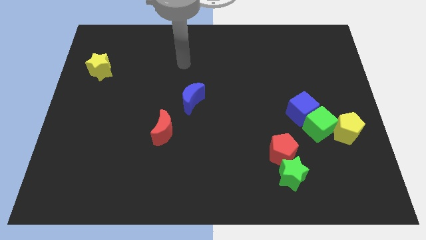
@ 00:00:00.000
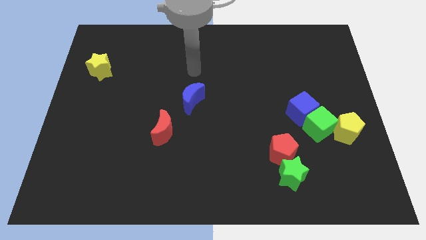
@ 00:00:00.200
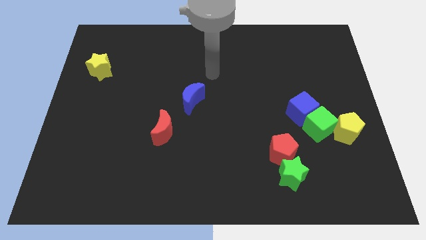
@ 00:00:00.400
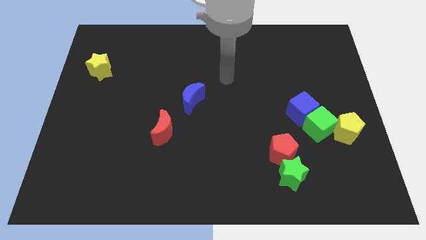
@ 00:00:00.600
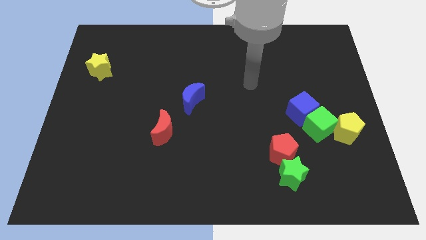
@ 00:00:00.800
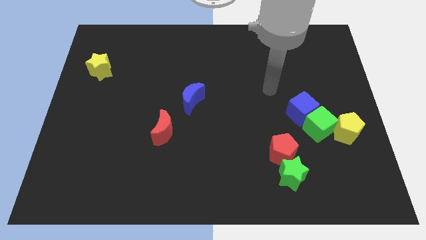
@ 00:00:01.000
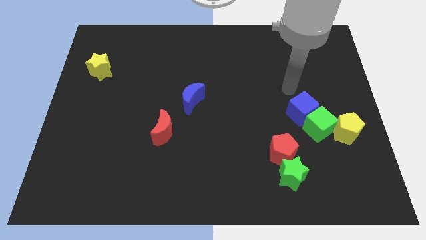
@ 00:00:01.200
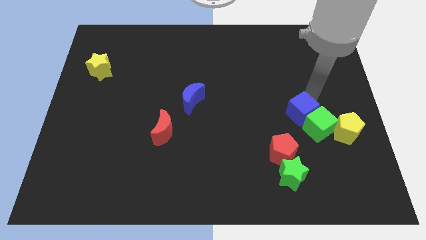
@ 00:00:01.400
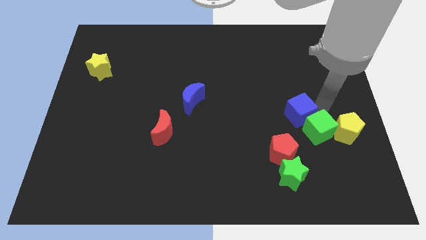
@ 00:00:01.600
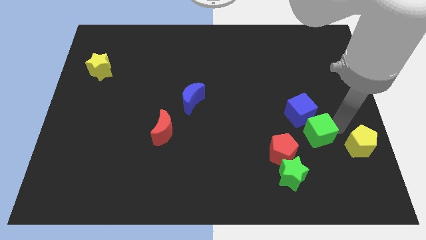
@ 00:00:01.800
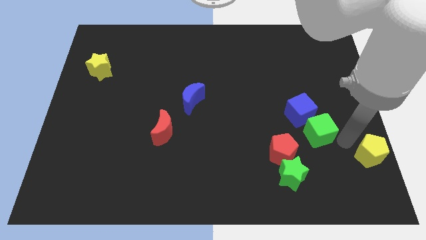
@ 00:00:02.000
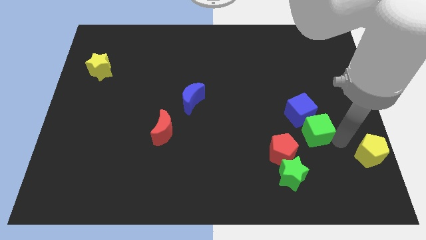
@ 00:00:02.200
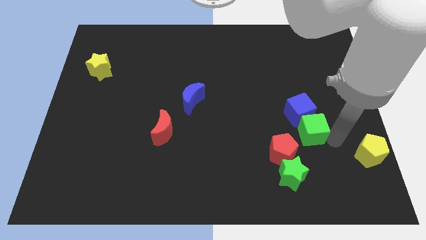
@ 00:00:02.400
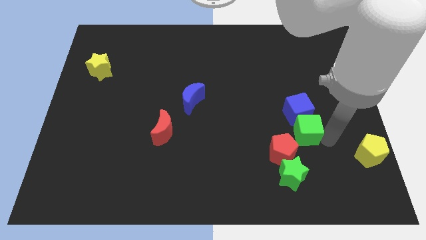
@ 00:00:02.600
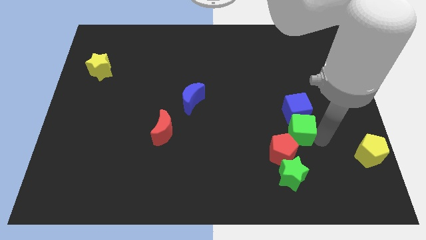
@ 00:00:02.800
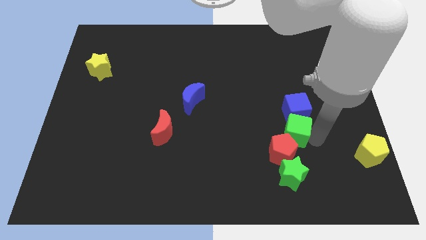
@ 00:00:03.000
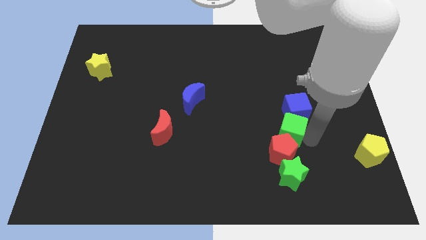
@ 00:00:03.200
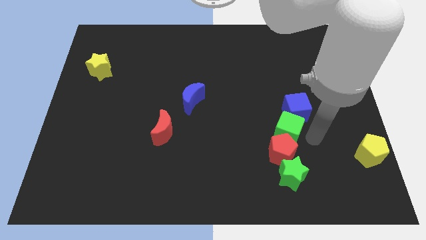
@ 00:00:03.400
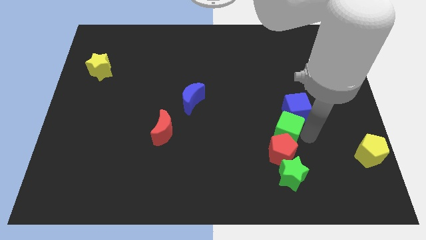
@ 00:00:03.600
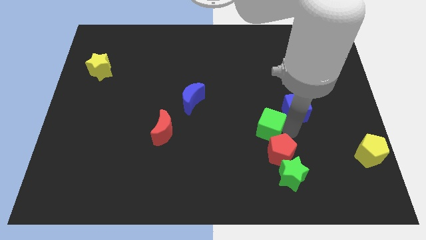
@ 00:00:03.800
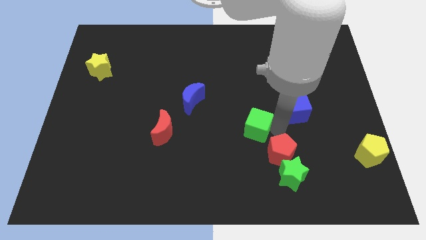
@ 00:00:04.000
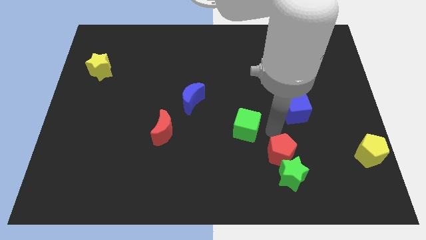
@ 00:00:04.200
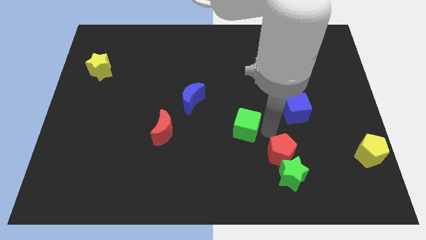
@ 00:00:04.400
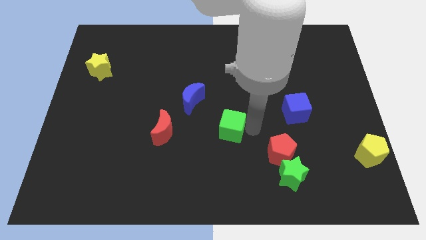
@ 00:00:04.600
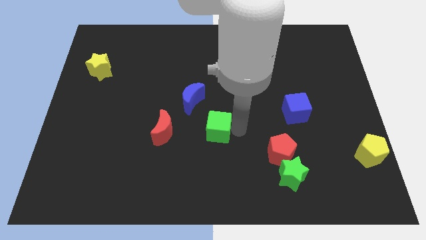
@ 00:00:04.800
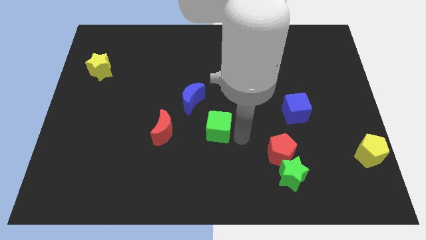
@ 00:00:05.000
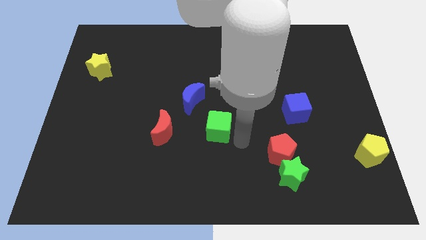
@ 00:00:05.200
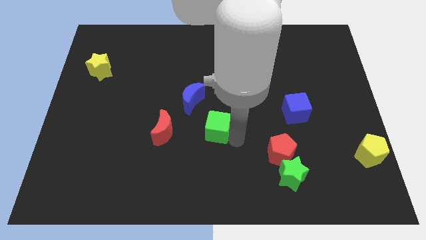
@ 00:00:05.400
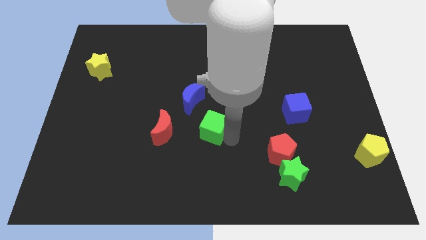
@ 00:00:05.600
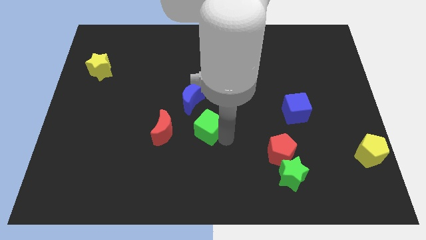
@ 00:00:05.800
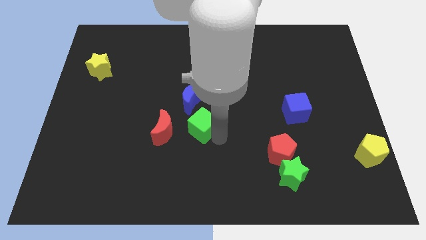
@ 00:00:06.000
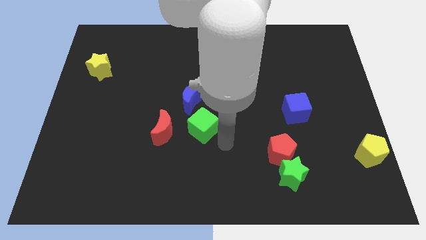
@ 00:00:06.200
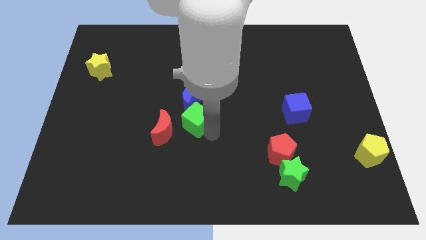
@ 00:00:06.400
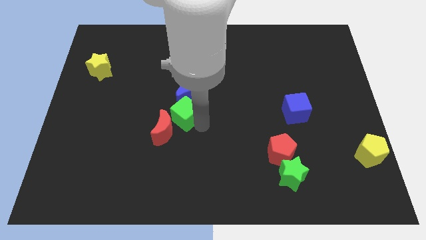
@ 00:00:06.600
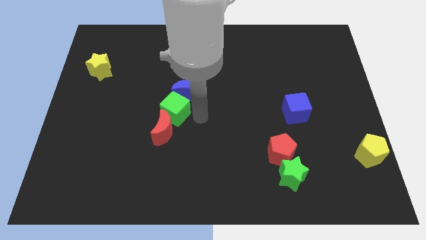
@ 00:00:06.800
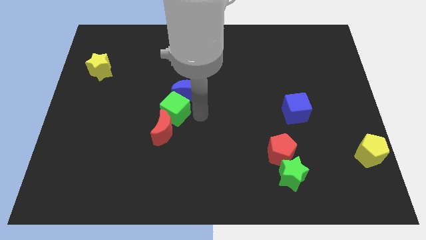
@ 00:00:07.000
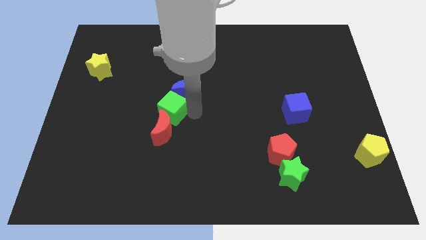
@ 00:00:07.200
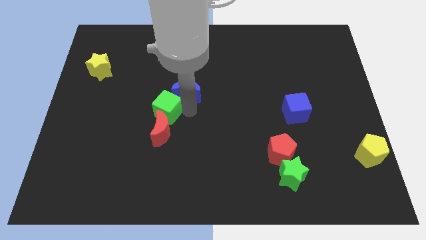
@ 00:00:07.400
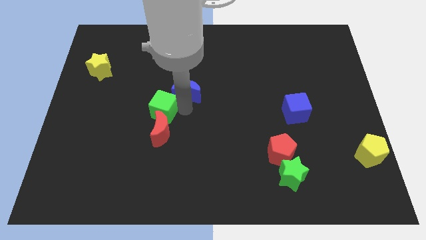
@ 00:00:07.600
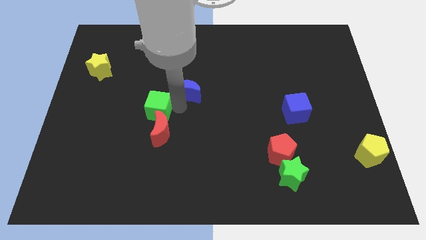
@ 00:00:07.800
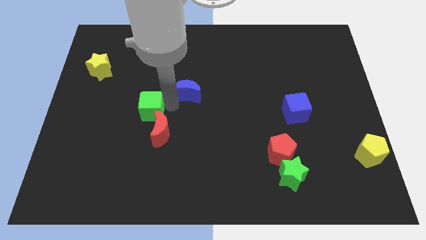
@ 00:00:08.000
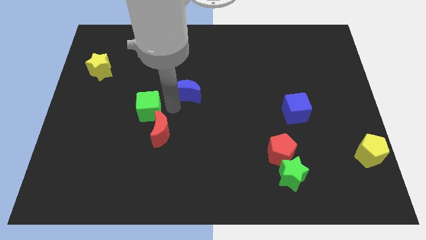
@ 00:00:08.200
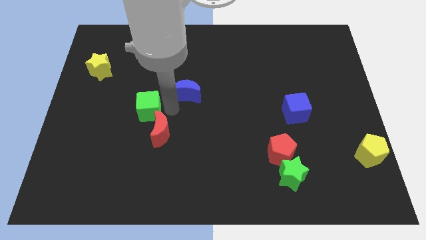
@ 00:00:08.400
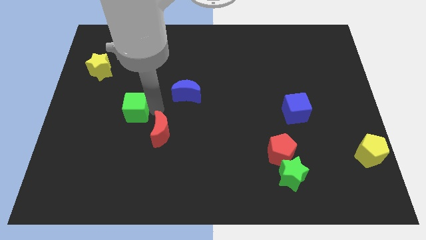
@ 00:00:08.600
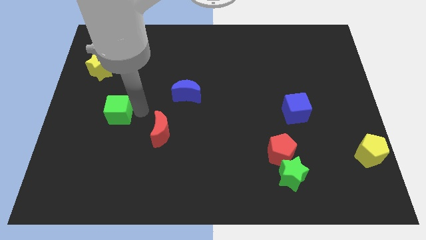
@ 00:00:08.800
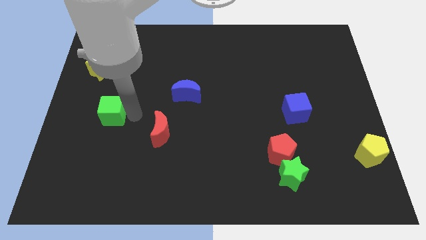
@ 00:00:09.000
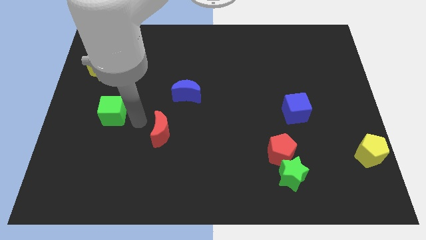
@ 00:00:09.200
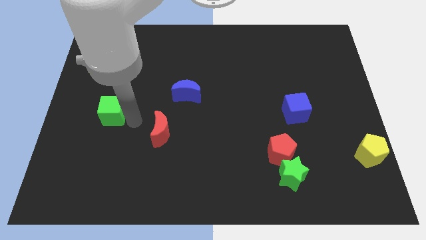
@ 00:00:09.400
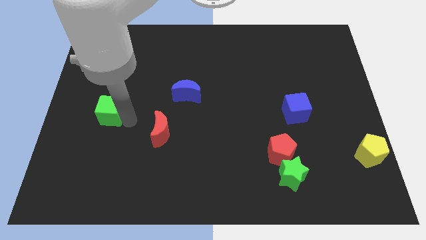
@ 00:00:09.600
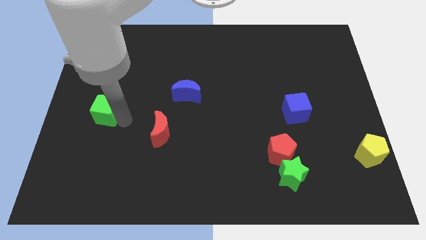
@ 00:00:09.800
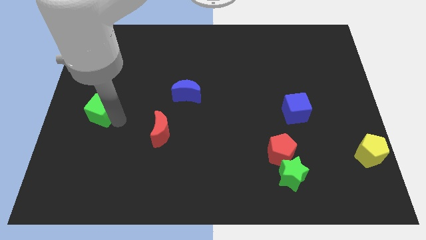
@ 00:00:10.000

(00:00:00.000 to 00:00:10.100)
push the green cube to the center left

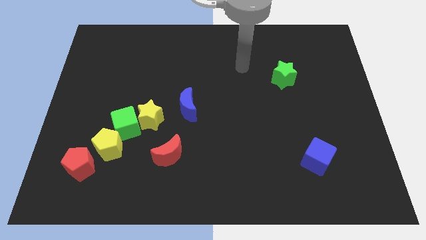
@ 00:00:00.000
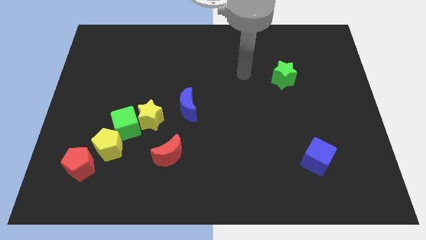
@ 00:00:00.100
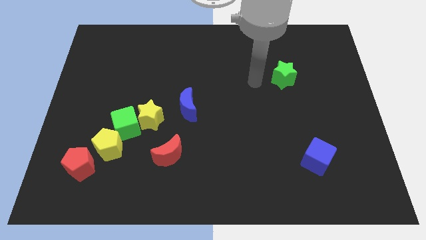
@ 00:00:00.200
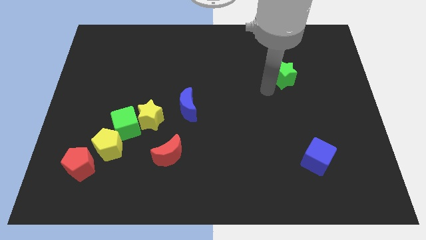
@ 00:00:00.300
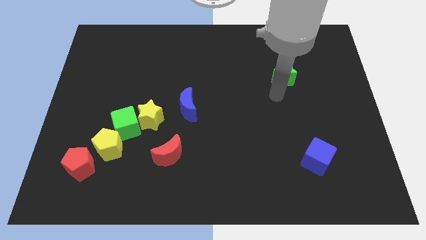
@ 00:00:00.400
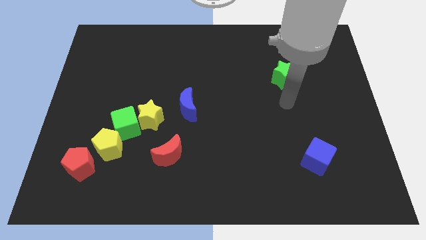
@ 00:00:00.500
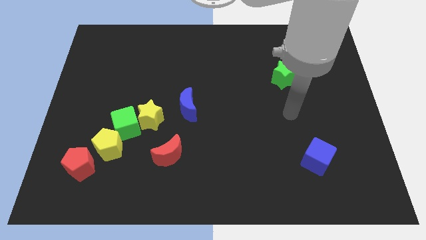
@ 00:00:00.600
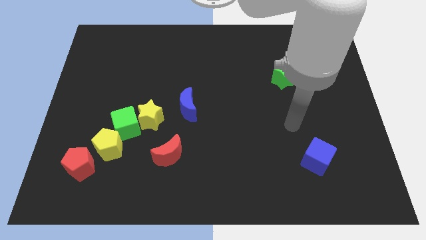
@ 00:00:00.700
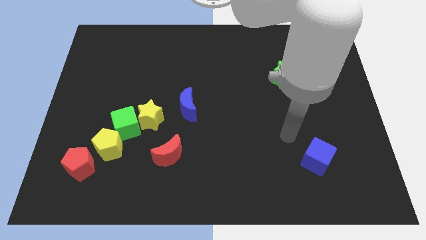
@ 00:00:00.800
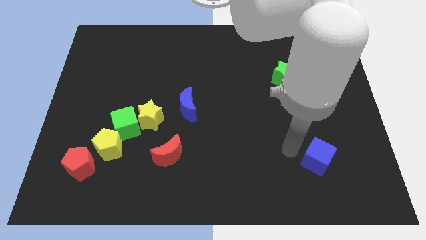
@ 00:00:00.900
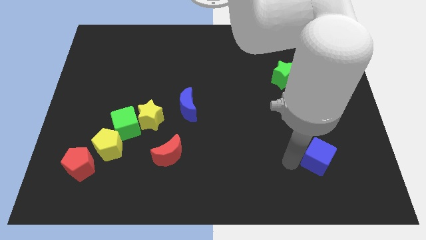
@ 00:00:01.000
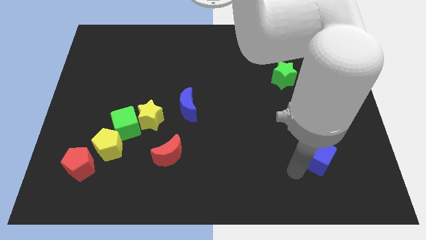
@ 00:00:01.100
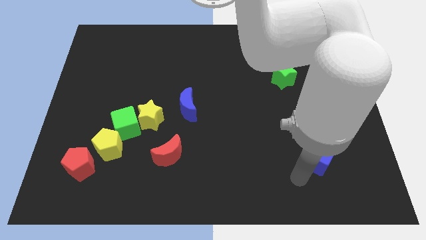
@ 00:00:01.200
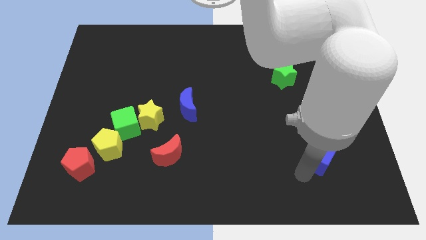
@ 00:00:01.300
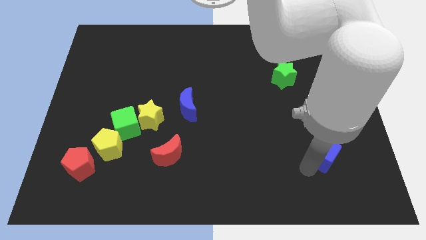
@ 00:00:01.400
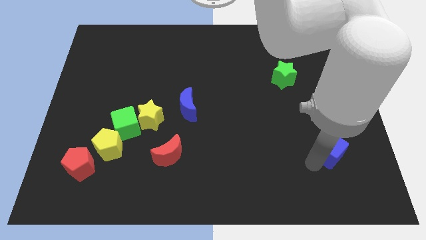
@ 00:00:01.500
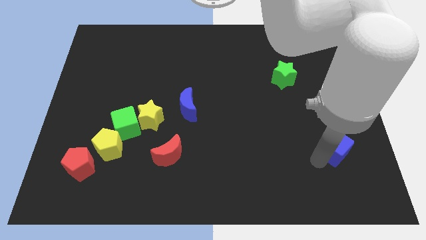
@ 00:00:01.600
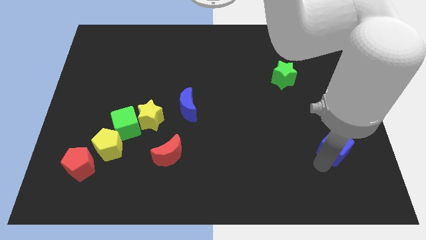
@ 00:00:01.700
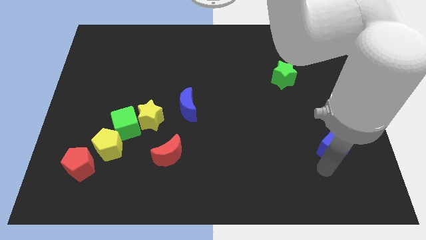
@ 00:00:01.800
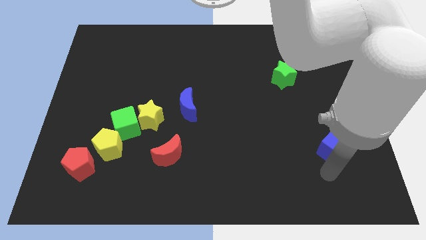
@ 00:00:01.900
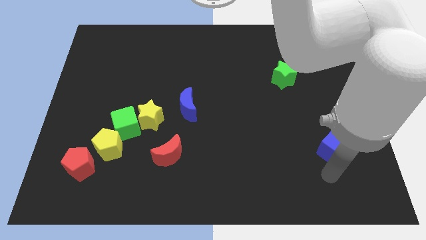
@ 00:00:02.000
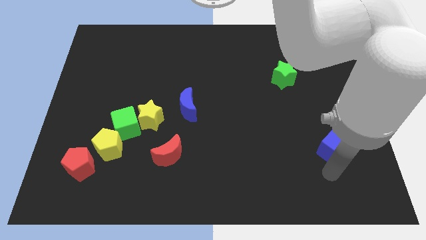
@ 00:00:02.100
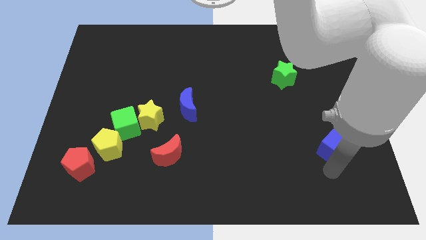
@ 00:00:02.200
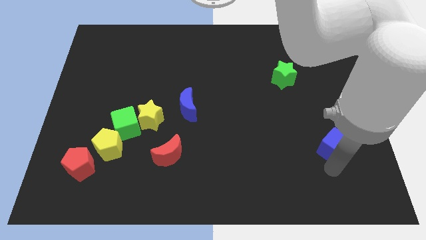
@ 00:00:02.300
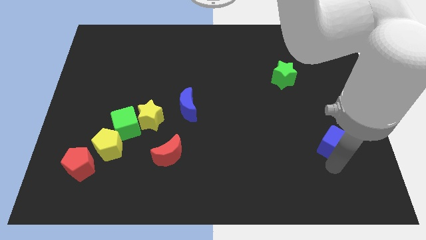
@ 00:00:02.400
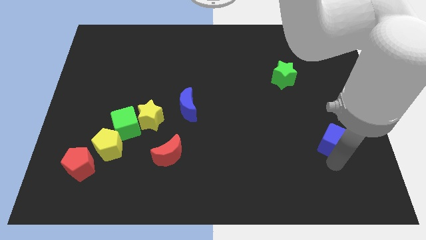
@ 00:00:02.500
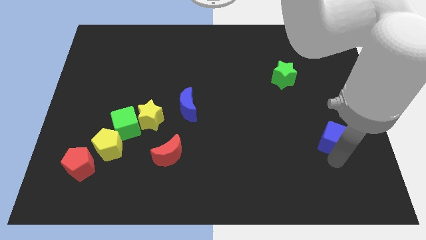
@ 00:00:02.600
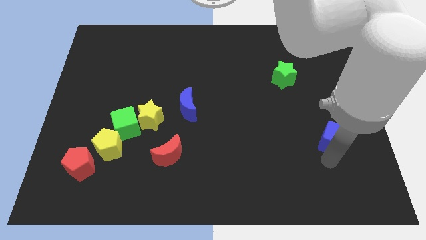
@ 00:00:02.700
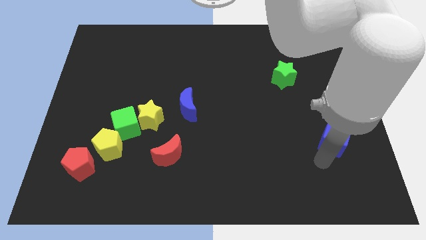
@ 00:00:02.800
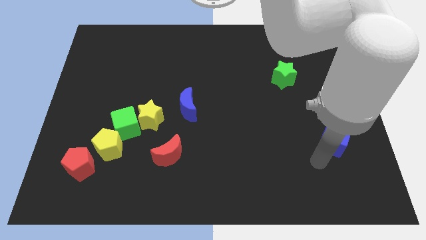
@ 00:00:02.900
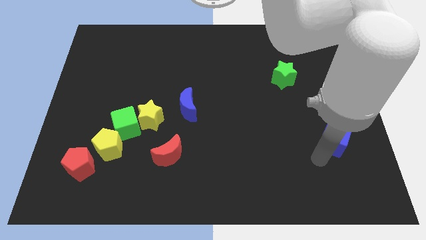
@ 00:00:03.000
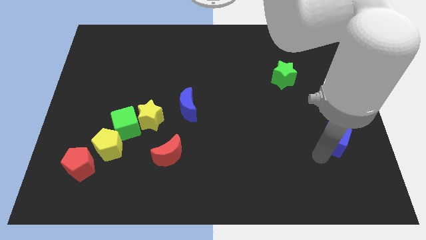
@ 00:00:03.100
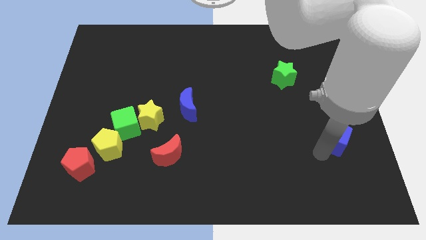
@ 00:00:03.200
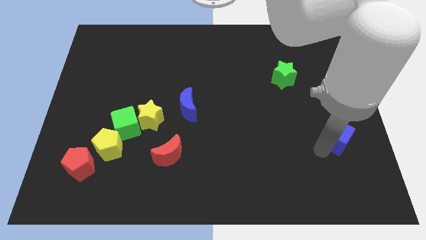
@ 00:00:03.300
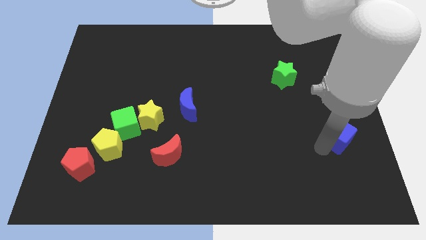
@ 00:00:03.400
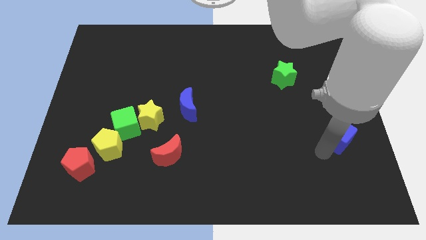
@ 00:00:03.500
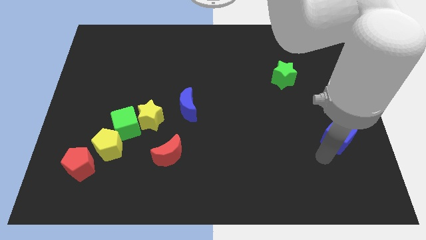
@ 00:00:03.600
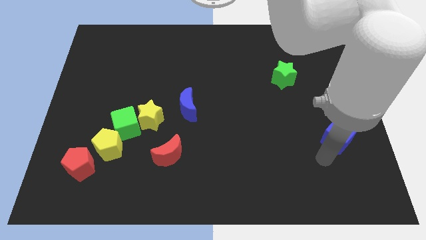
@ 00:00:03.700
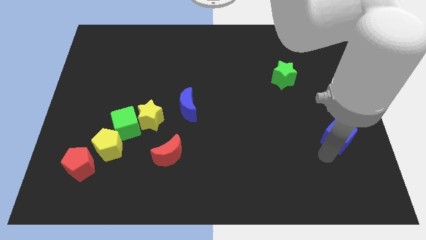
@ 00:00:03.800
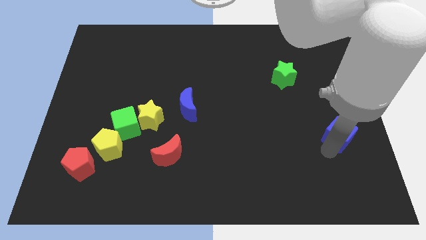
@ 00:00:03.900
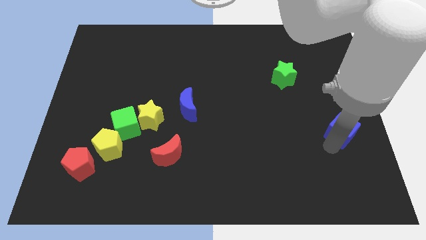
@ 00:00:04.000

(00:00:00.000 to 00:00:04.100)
put the blue cube to the center right
